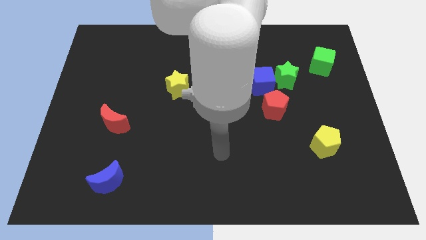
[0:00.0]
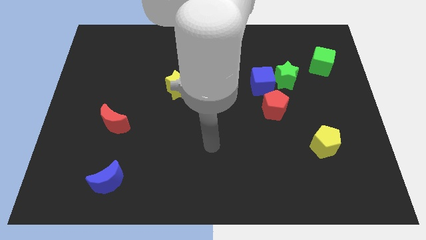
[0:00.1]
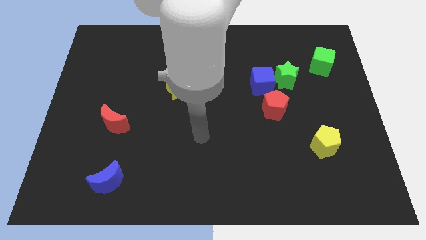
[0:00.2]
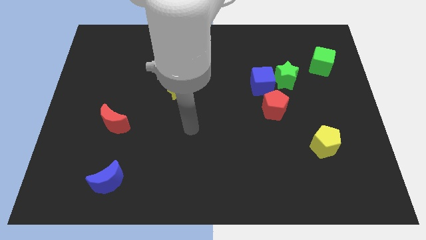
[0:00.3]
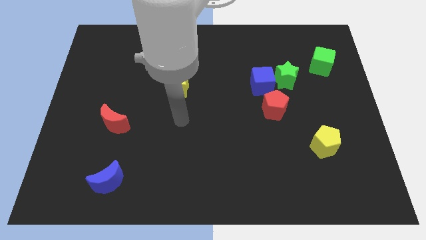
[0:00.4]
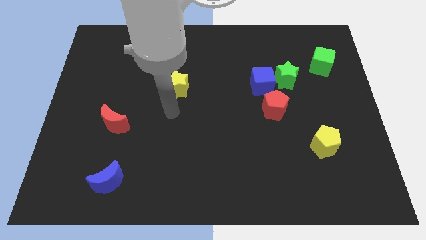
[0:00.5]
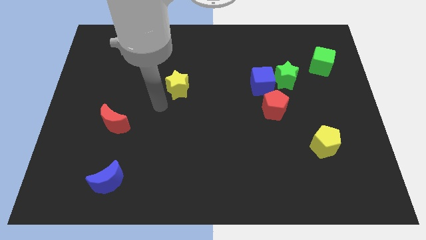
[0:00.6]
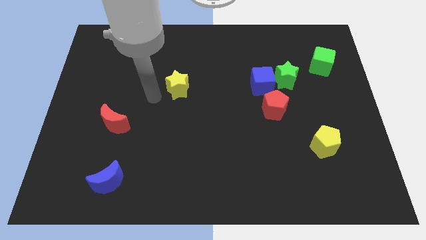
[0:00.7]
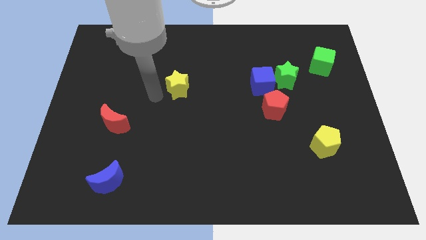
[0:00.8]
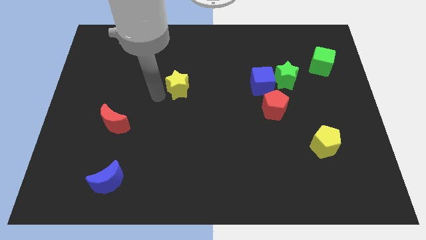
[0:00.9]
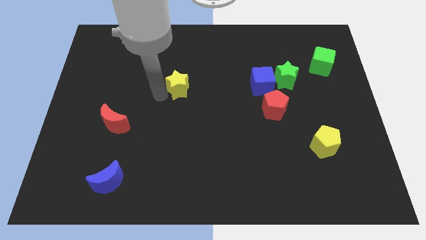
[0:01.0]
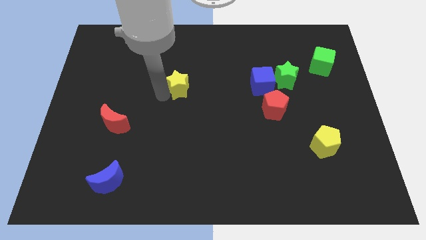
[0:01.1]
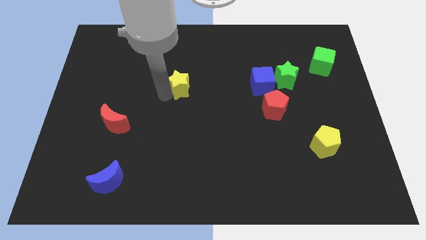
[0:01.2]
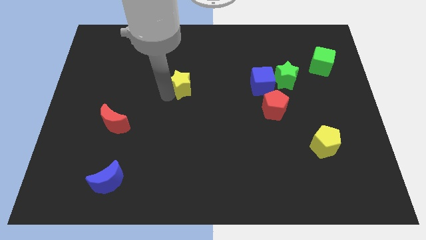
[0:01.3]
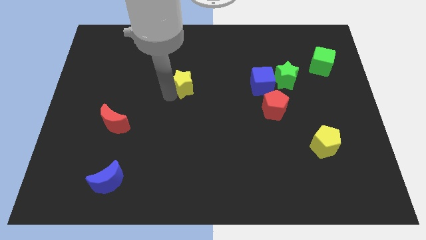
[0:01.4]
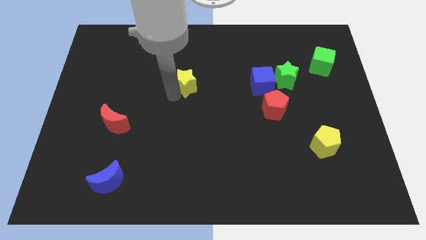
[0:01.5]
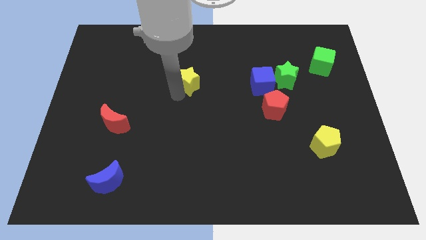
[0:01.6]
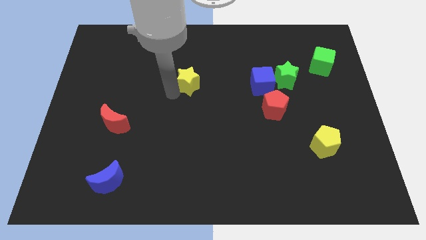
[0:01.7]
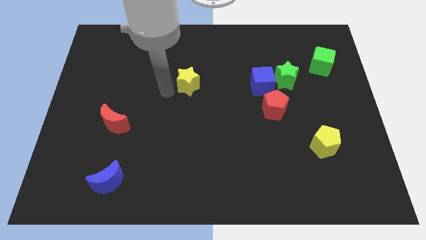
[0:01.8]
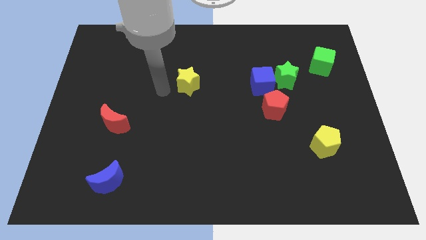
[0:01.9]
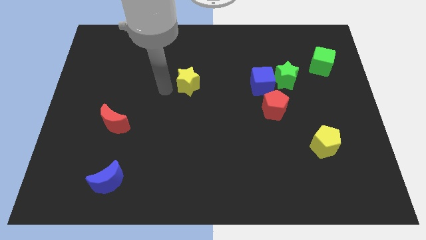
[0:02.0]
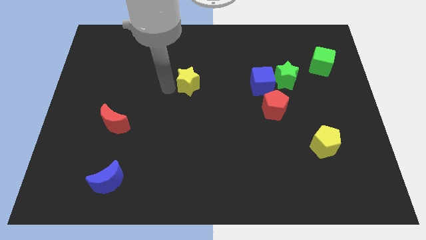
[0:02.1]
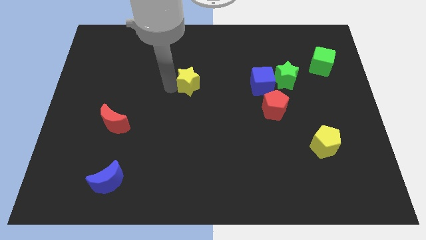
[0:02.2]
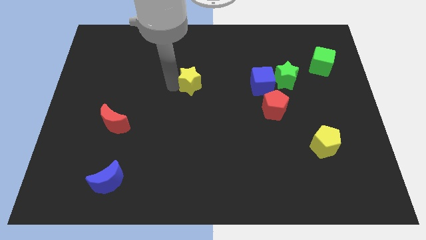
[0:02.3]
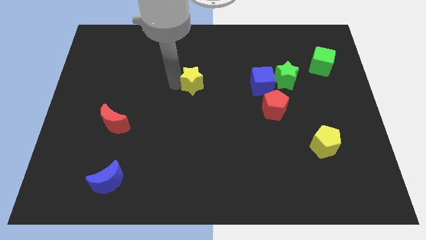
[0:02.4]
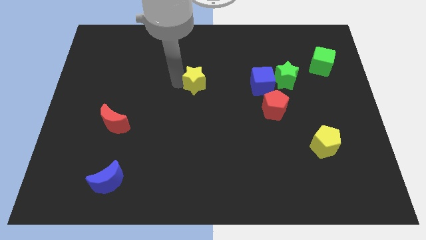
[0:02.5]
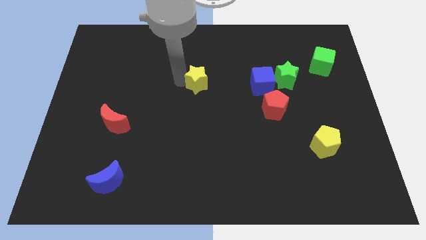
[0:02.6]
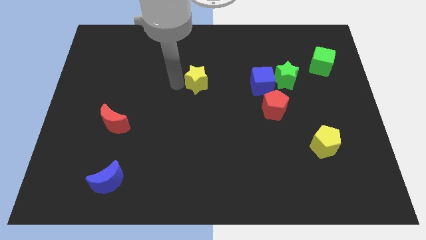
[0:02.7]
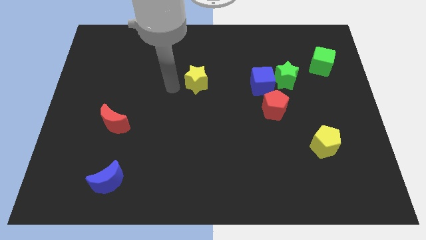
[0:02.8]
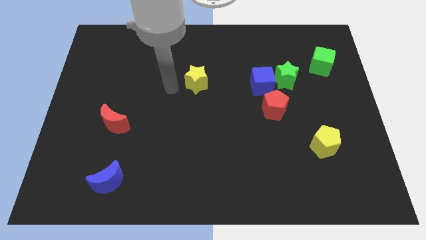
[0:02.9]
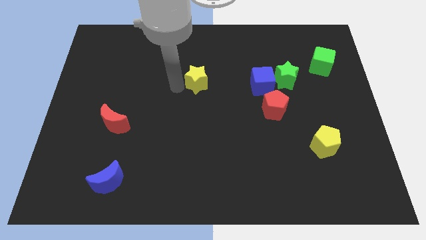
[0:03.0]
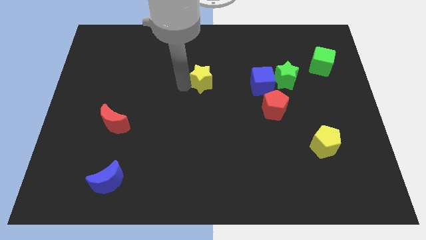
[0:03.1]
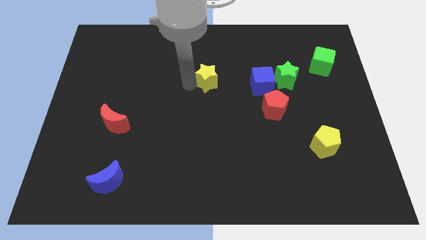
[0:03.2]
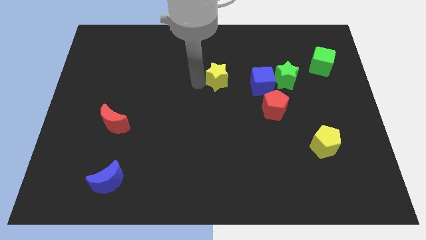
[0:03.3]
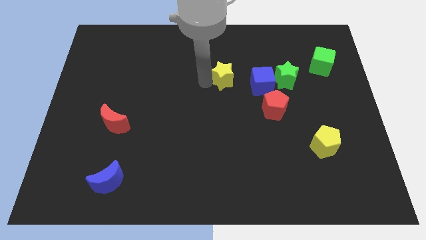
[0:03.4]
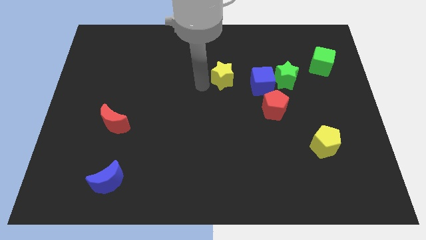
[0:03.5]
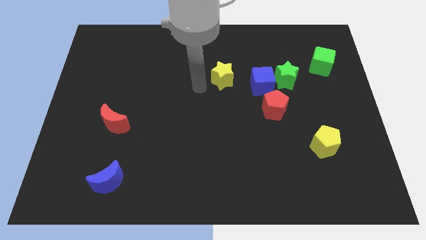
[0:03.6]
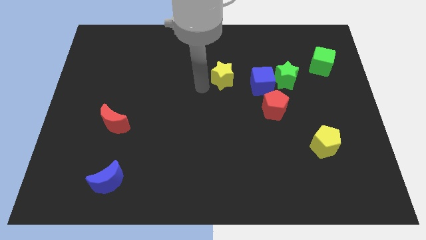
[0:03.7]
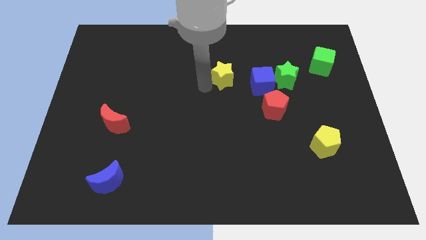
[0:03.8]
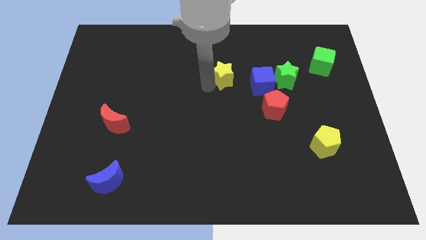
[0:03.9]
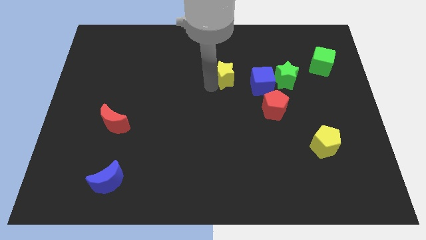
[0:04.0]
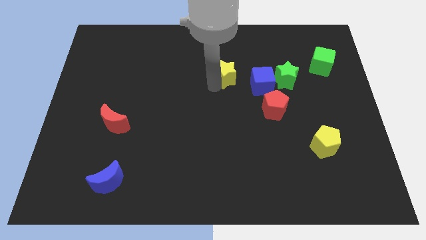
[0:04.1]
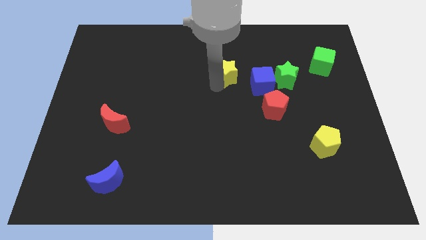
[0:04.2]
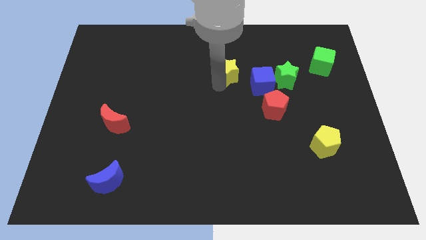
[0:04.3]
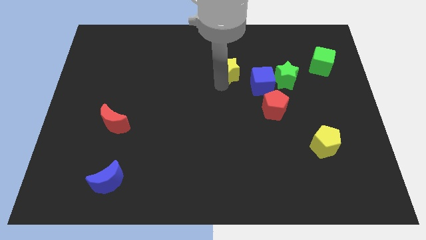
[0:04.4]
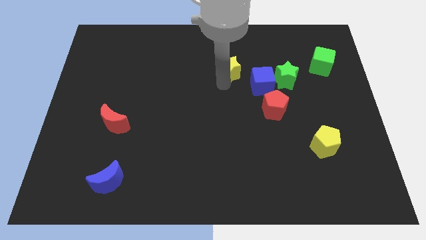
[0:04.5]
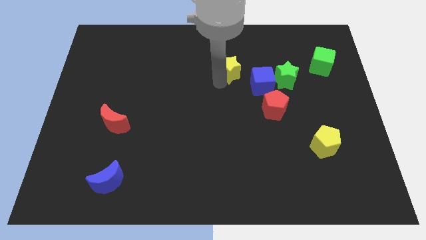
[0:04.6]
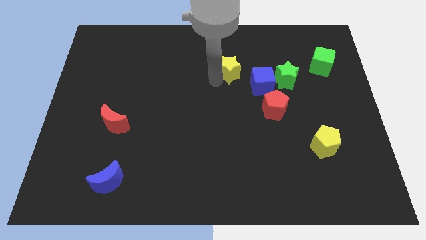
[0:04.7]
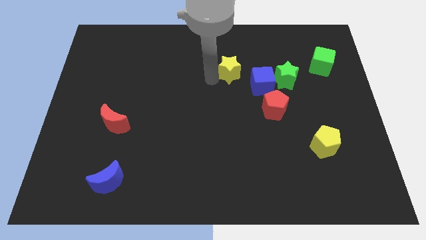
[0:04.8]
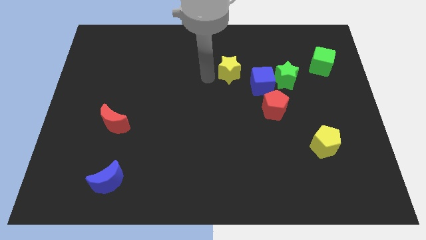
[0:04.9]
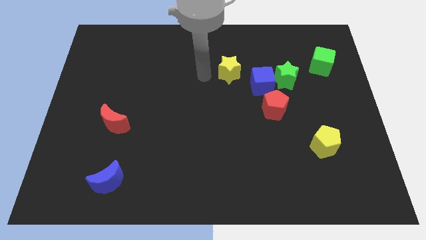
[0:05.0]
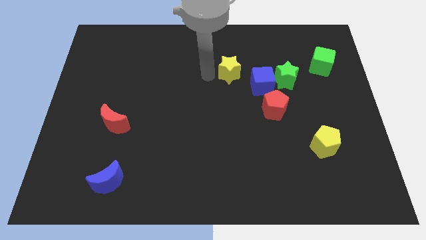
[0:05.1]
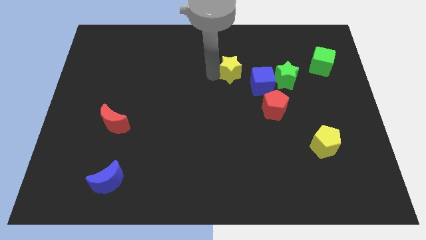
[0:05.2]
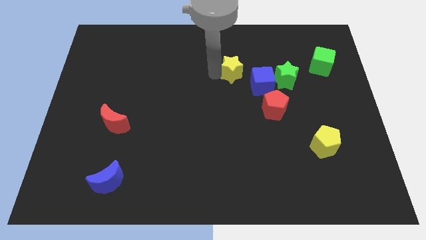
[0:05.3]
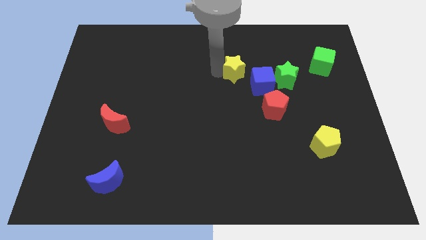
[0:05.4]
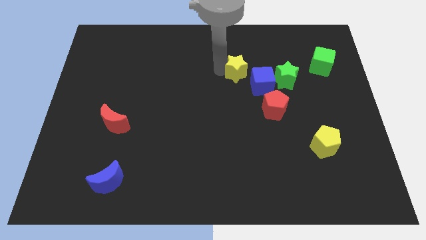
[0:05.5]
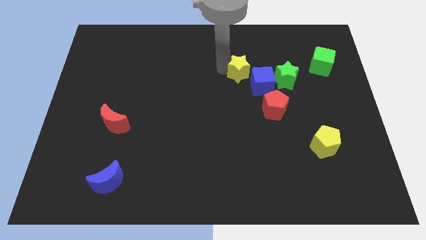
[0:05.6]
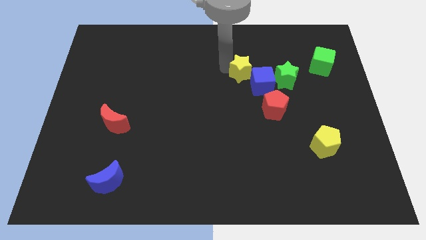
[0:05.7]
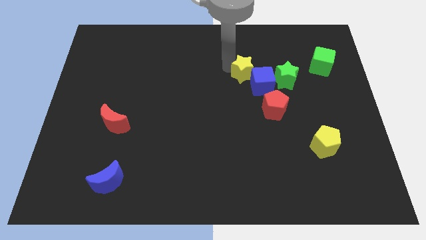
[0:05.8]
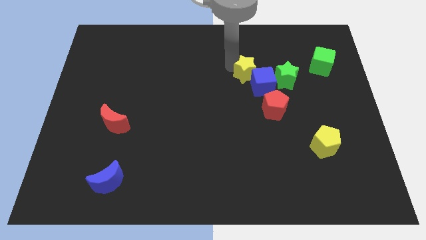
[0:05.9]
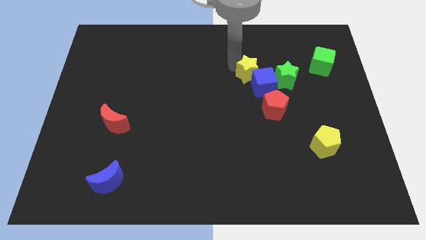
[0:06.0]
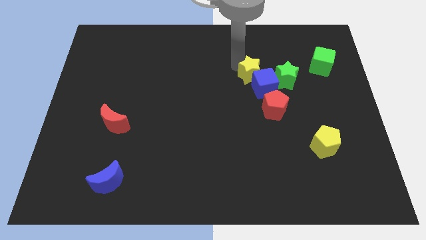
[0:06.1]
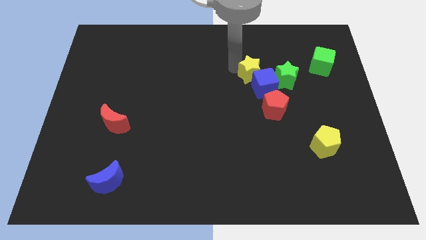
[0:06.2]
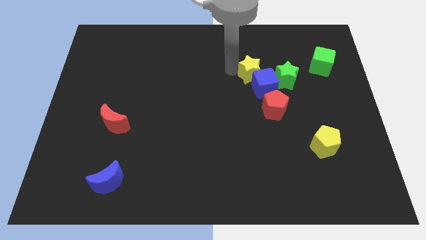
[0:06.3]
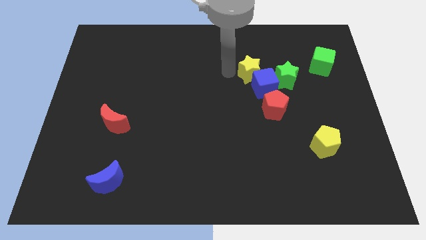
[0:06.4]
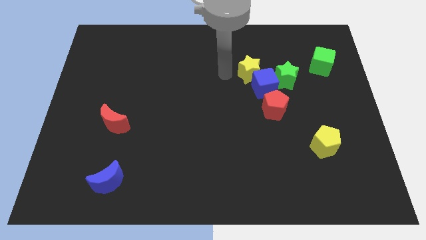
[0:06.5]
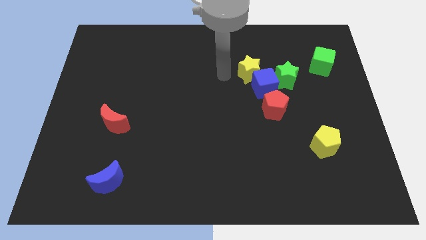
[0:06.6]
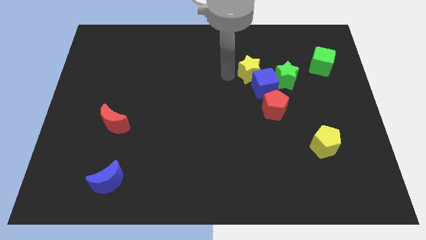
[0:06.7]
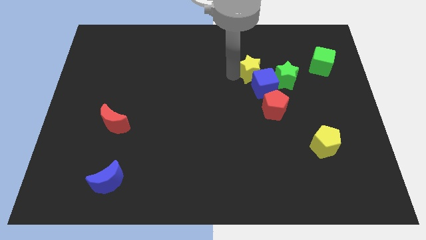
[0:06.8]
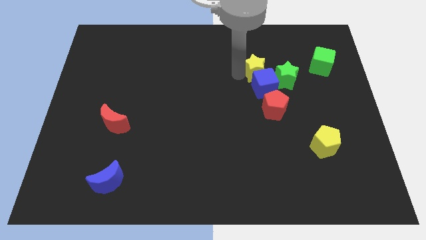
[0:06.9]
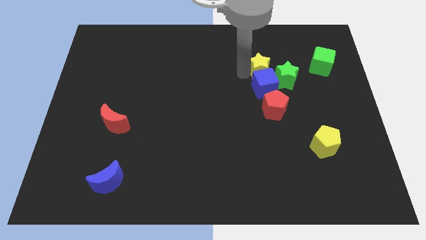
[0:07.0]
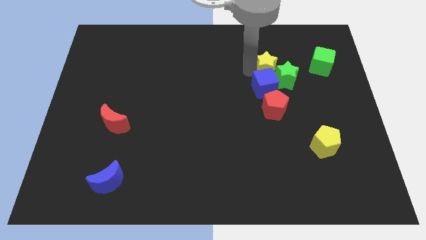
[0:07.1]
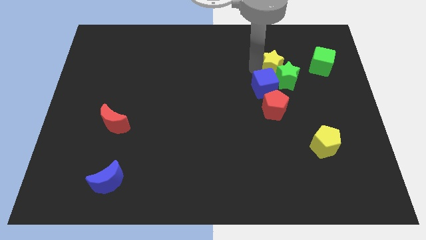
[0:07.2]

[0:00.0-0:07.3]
slide the yellow star to the green star
